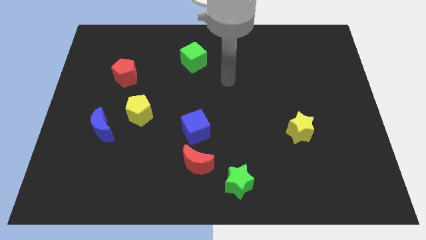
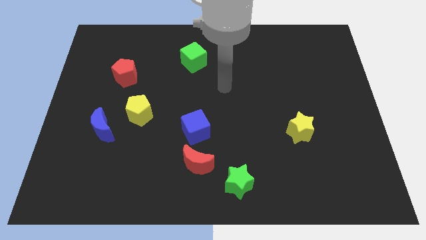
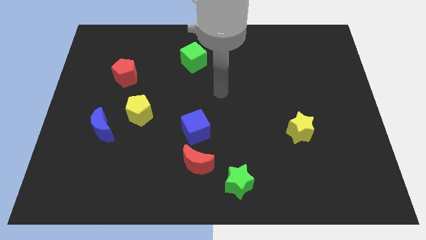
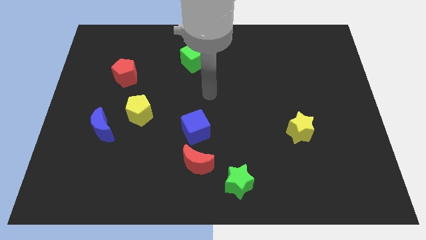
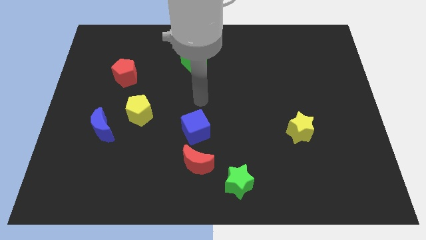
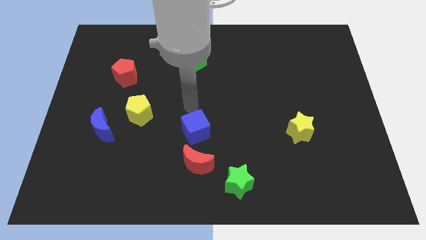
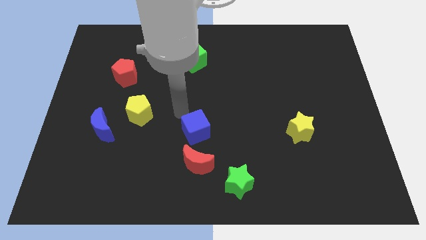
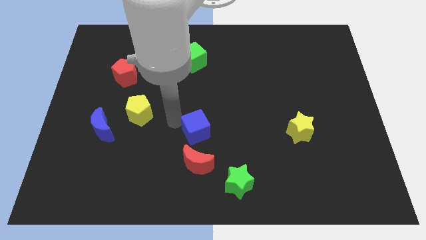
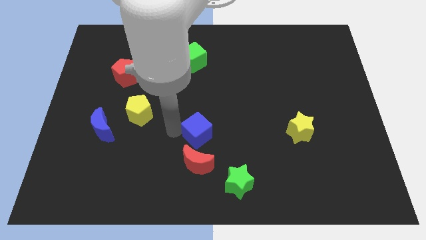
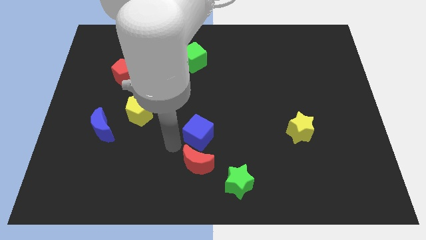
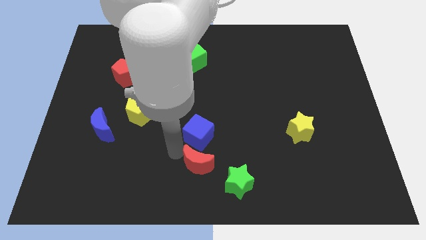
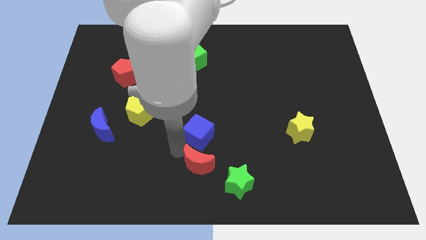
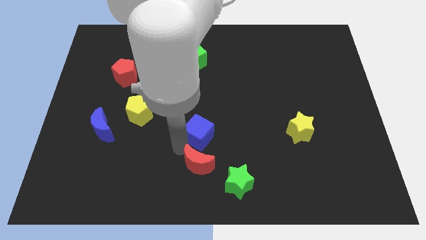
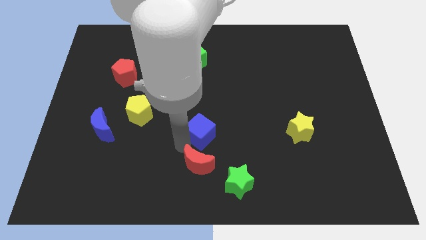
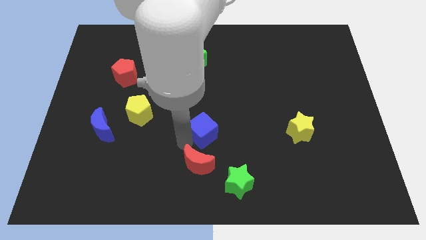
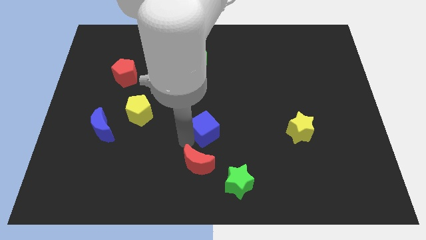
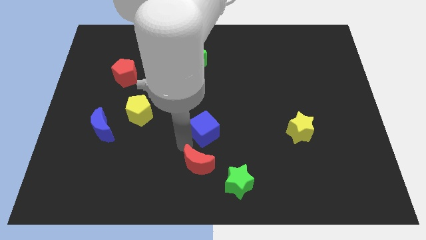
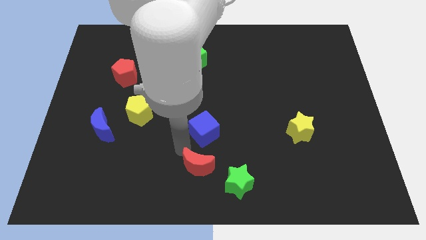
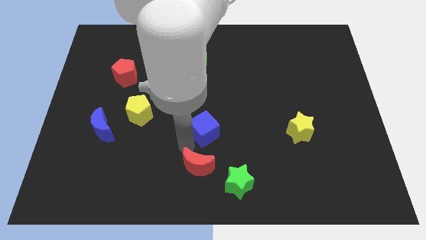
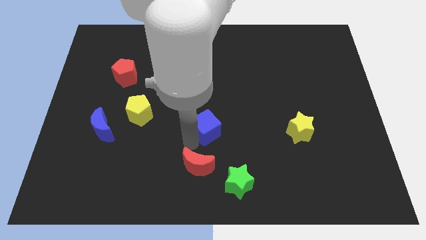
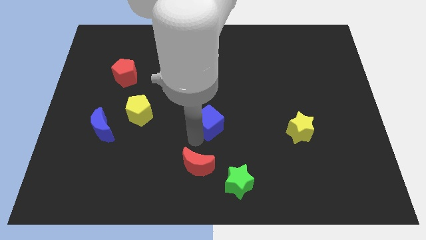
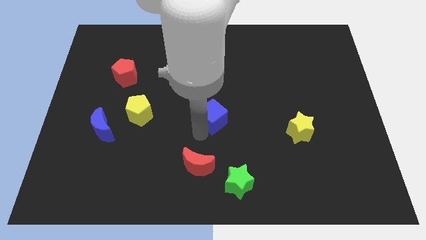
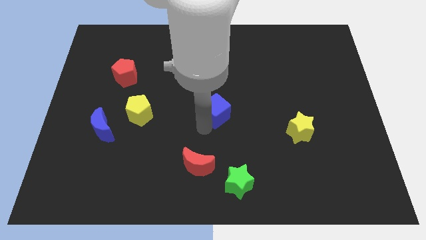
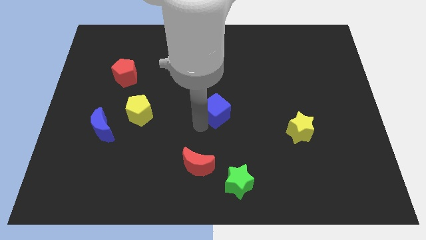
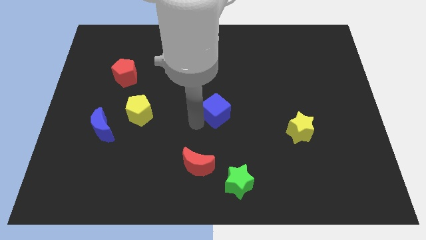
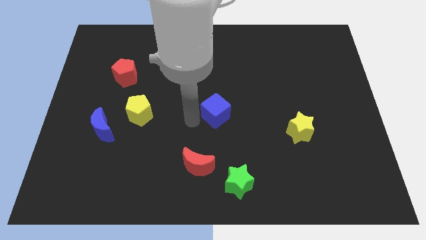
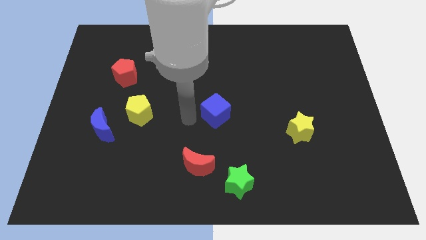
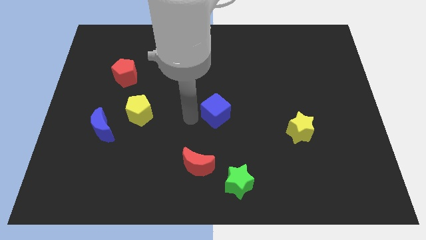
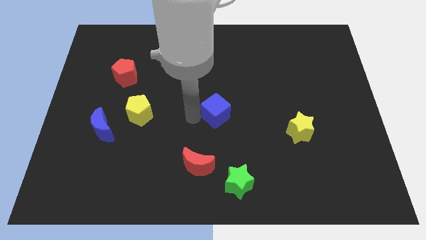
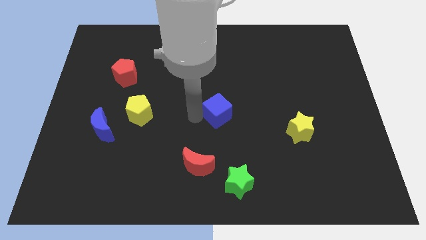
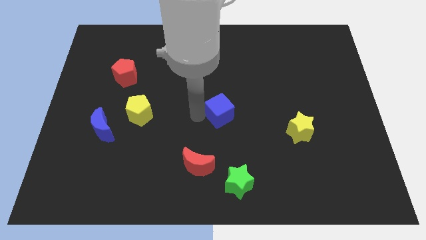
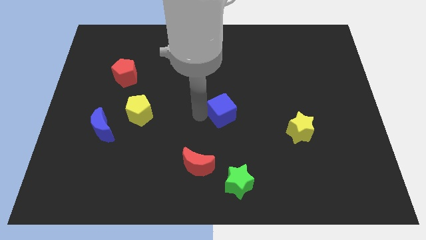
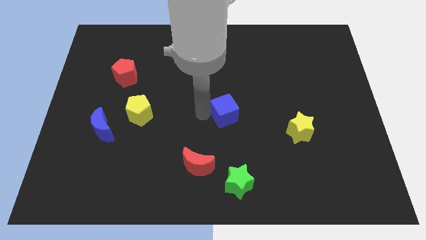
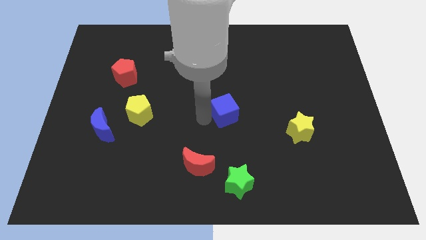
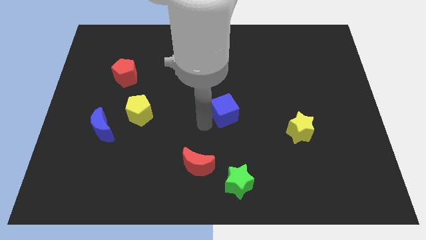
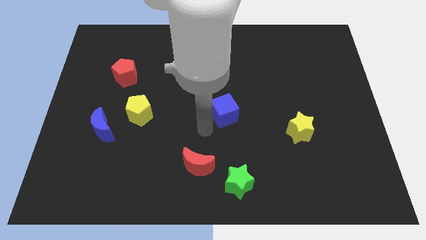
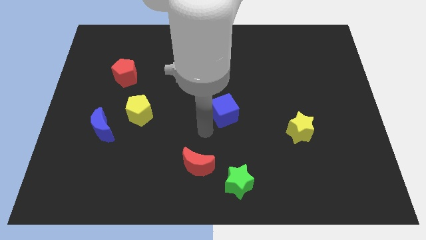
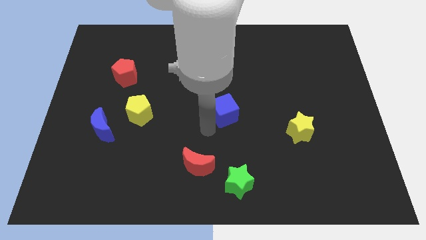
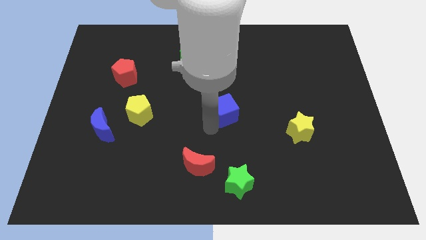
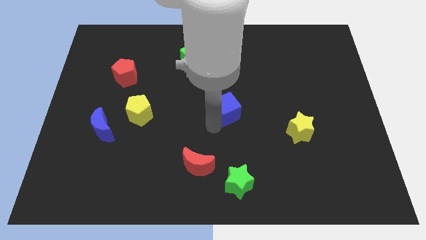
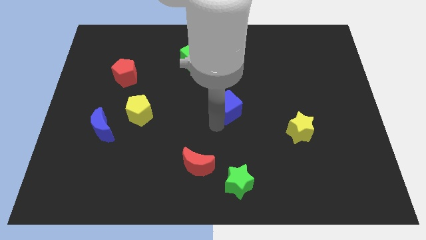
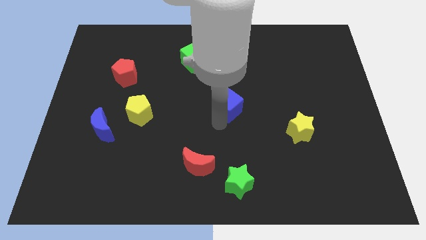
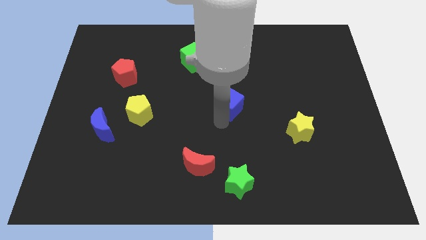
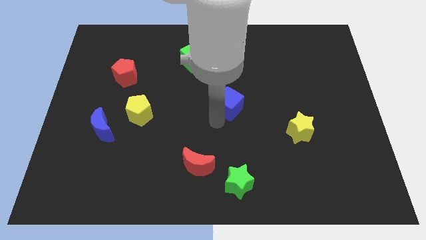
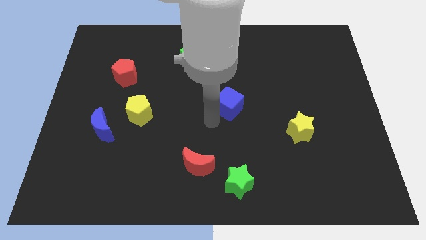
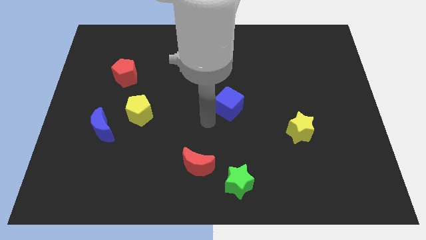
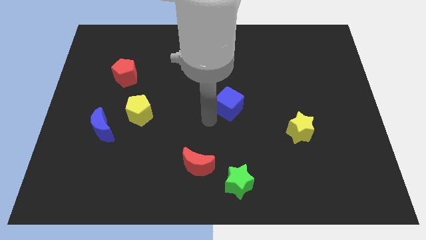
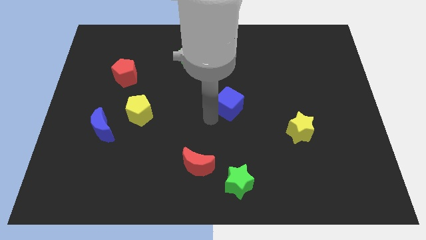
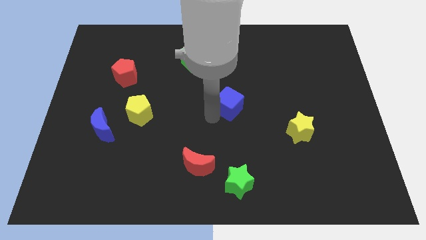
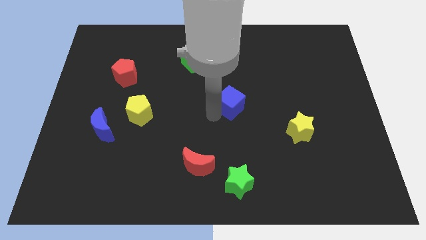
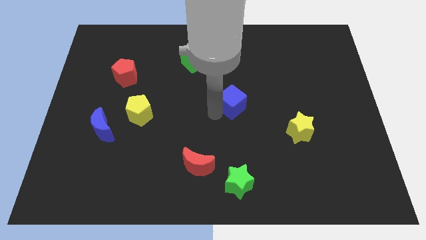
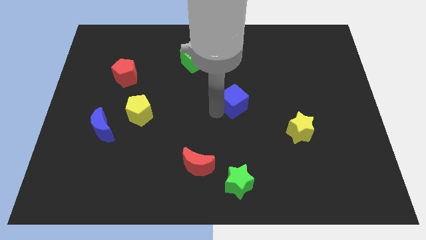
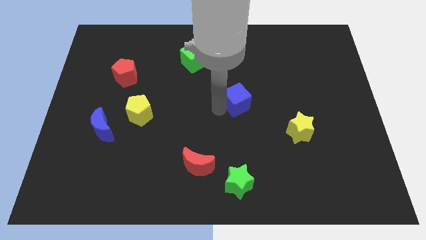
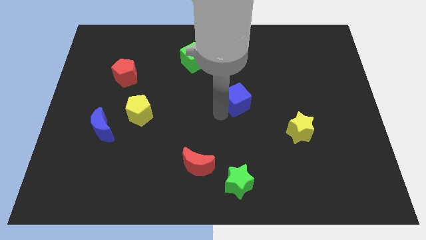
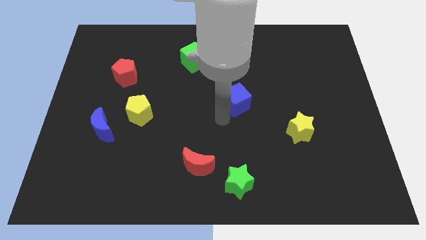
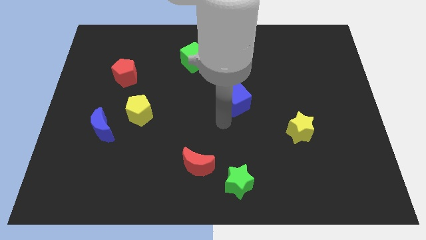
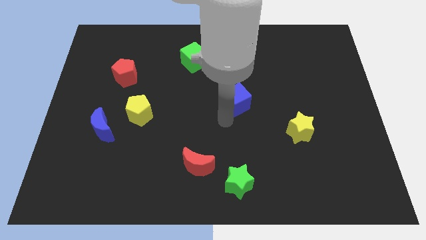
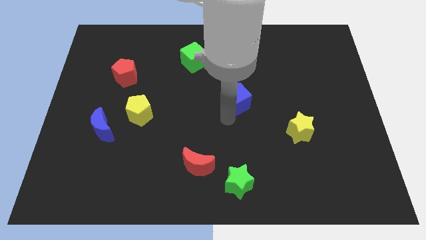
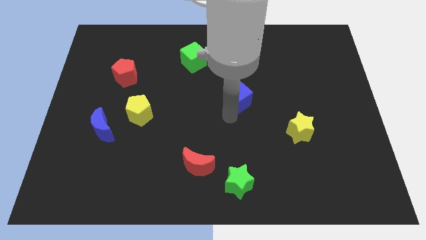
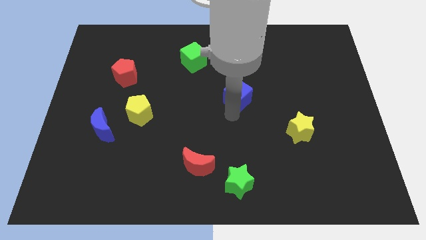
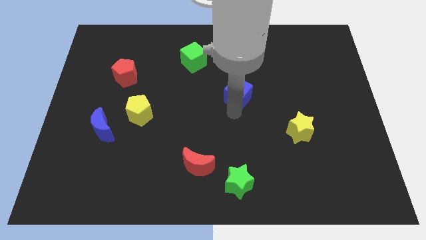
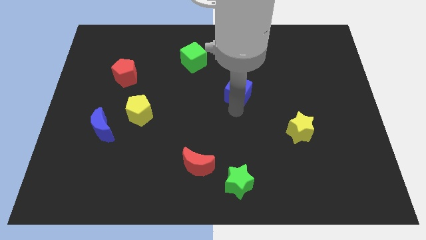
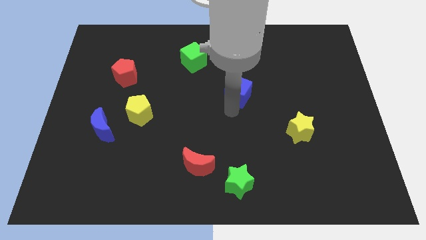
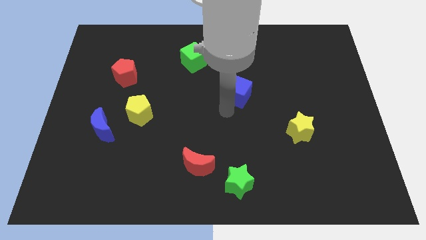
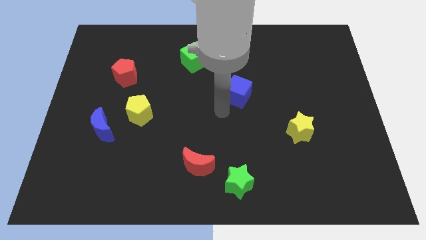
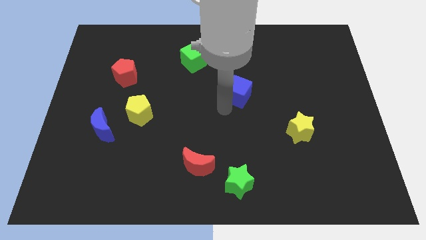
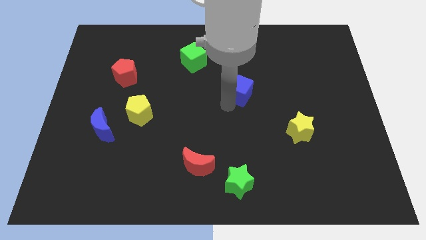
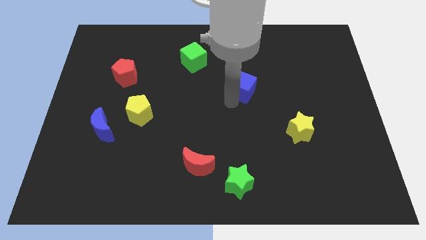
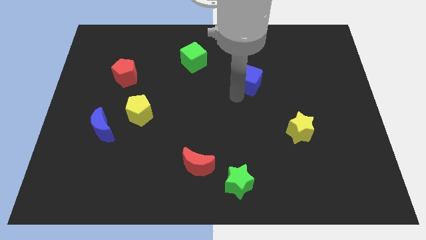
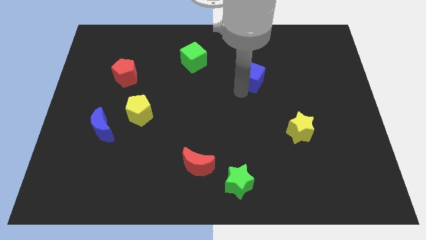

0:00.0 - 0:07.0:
move the blue cube diagonally up and to the right

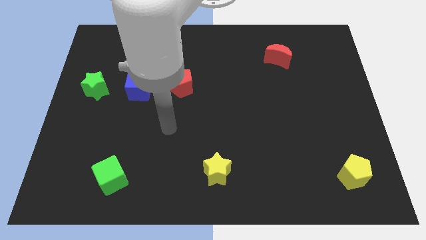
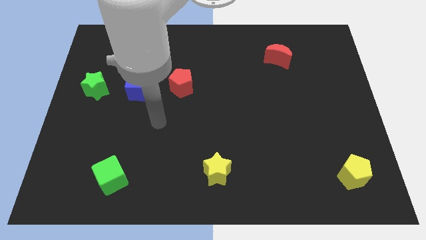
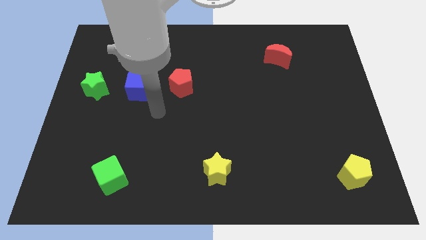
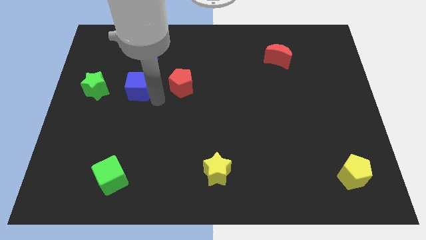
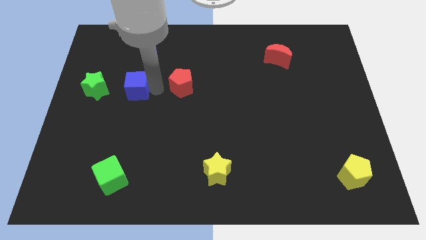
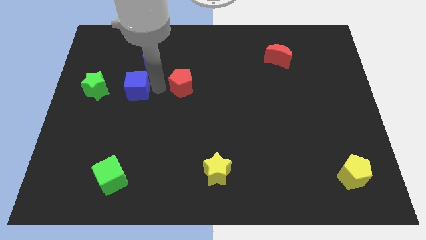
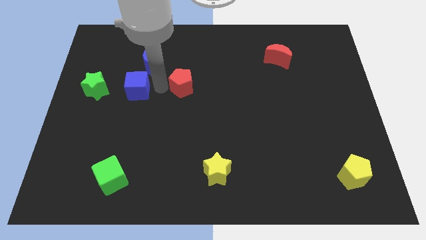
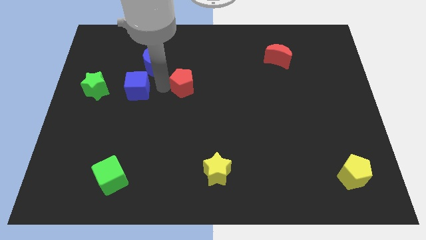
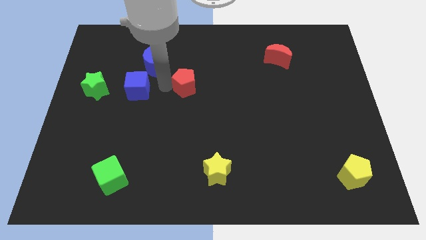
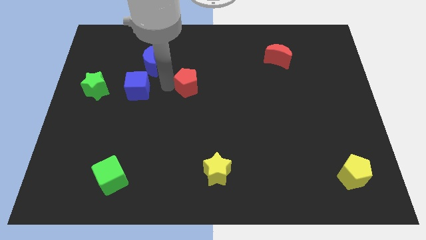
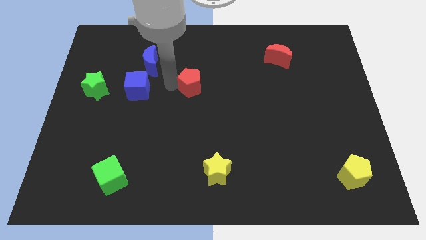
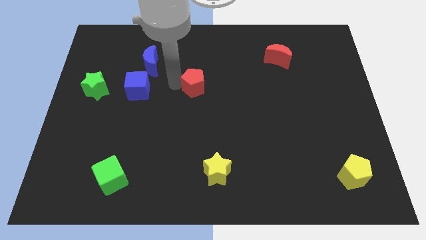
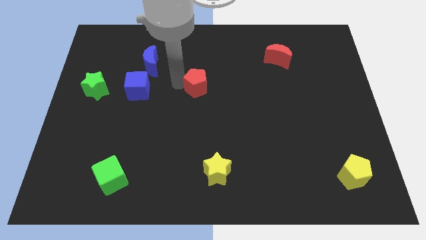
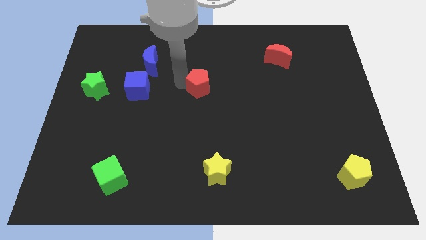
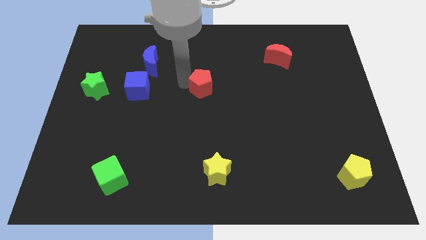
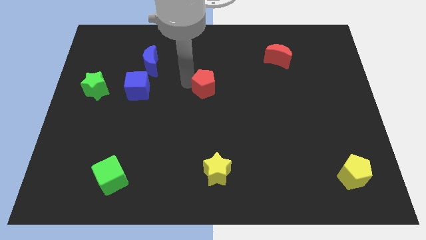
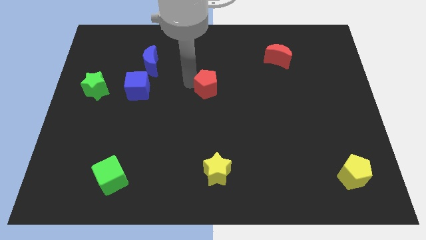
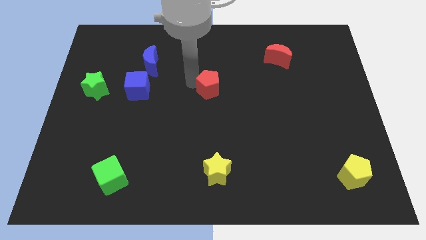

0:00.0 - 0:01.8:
push the red pentagon somewhat right
